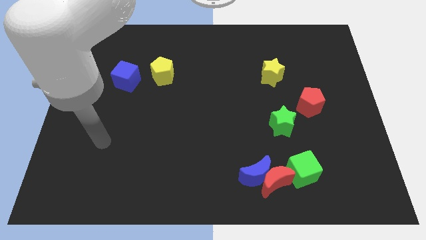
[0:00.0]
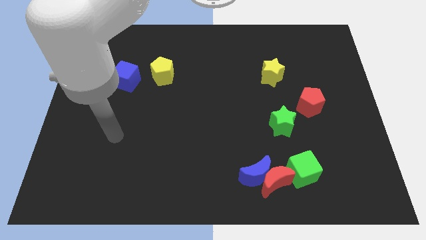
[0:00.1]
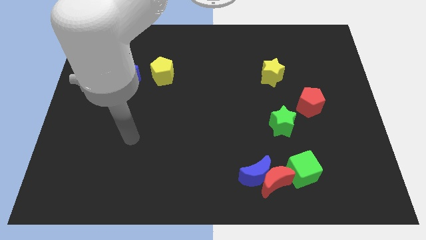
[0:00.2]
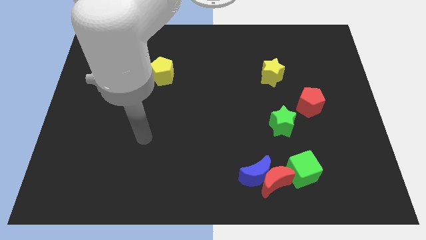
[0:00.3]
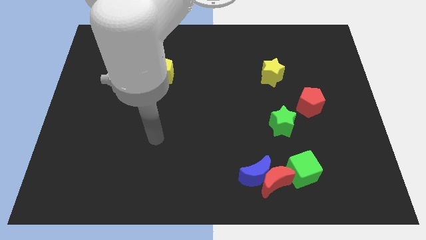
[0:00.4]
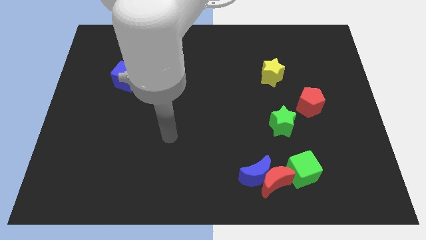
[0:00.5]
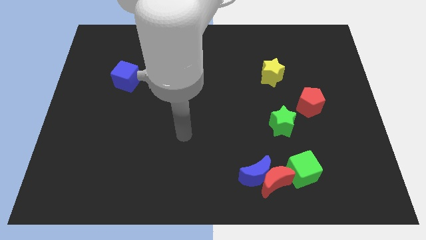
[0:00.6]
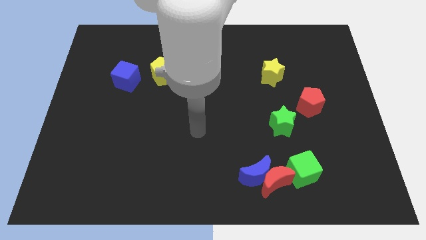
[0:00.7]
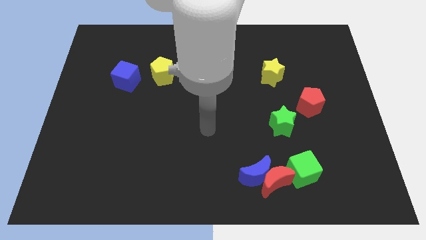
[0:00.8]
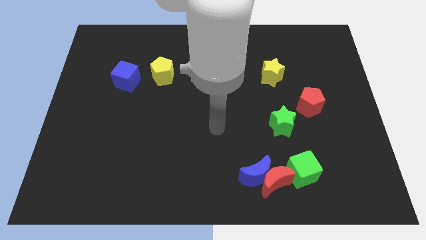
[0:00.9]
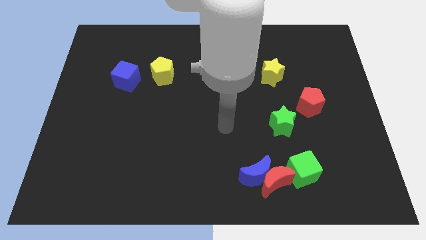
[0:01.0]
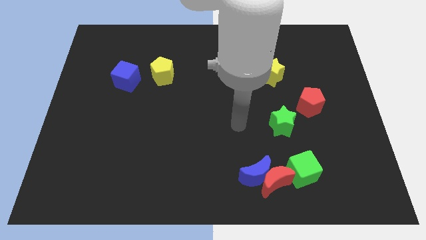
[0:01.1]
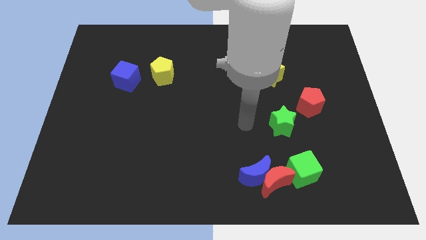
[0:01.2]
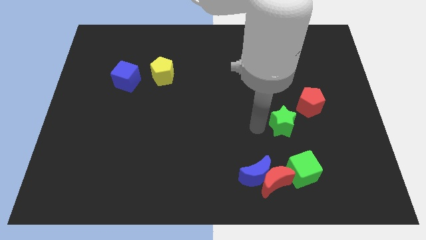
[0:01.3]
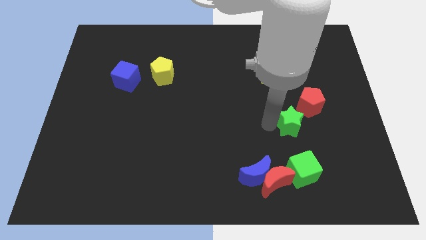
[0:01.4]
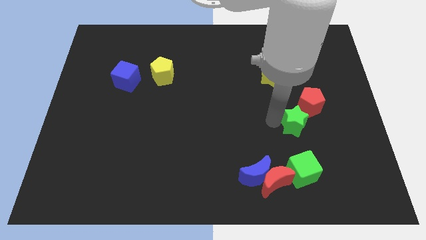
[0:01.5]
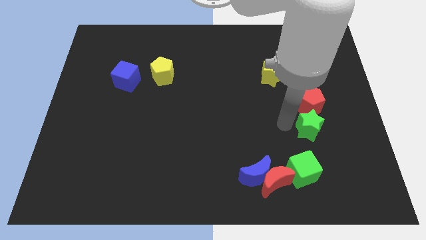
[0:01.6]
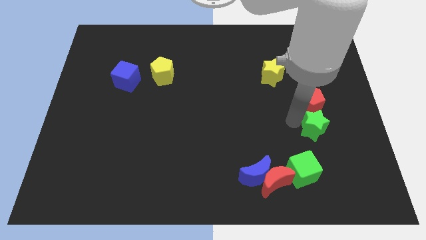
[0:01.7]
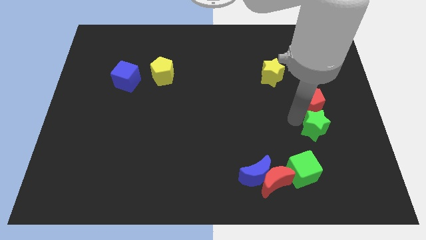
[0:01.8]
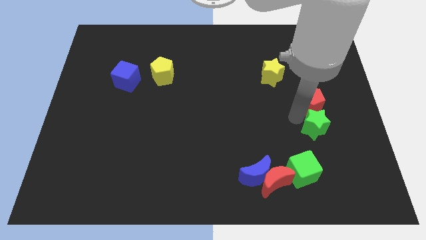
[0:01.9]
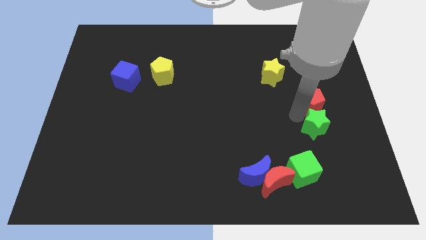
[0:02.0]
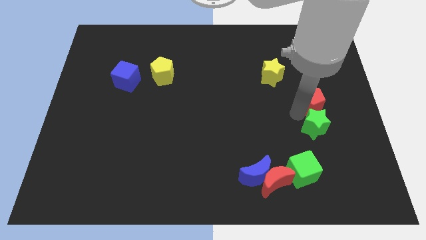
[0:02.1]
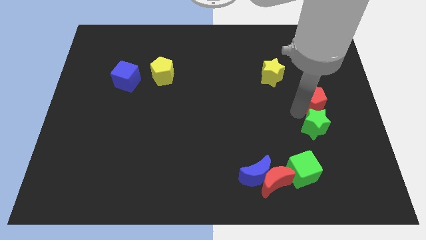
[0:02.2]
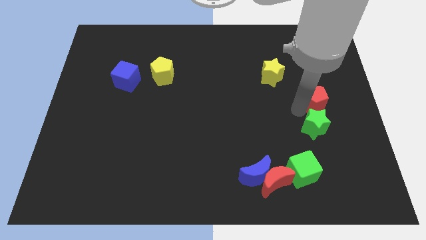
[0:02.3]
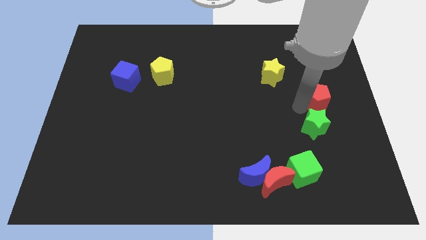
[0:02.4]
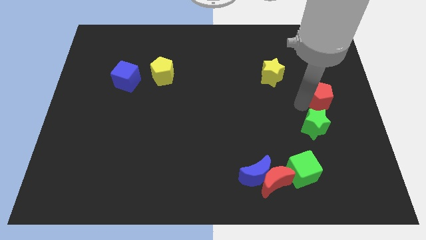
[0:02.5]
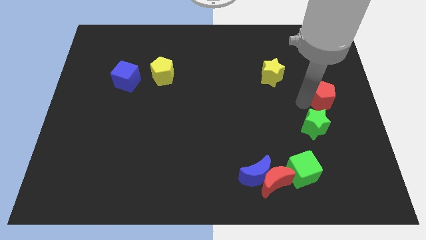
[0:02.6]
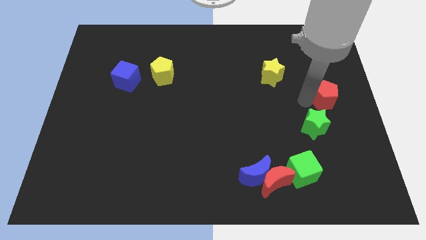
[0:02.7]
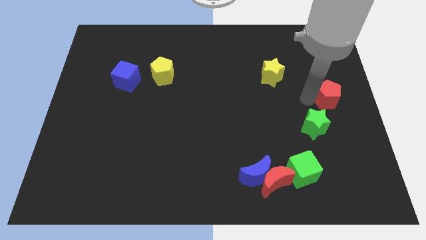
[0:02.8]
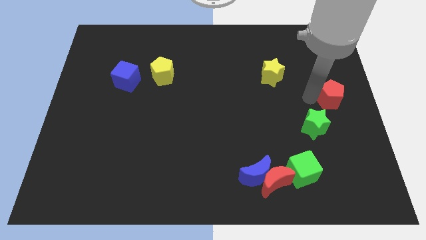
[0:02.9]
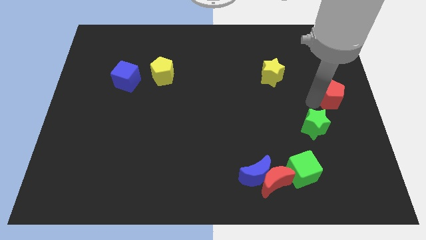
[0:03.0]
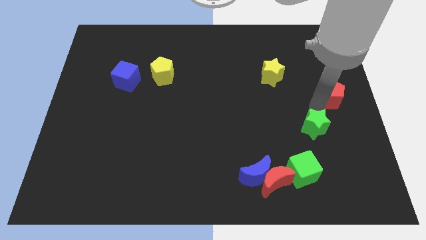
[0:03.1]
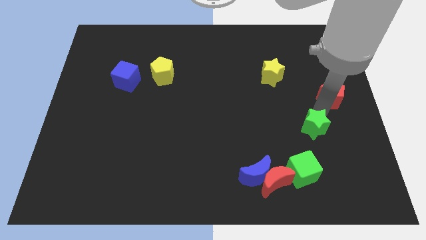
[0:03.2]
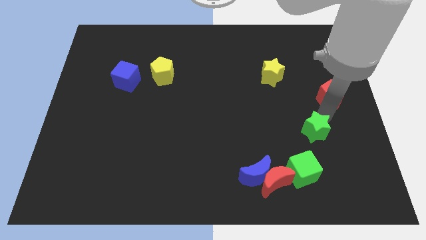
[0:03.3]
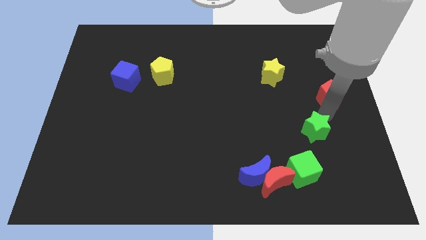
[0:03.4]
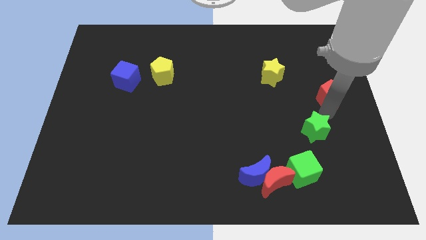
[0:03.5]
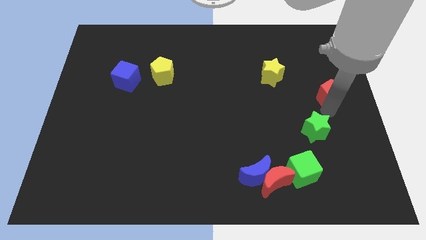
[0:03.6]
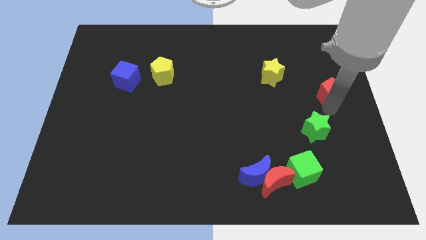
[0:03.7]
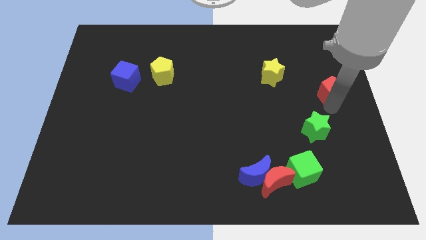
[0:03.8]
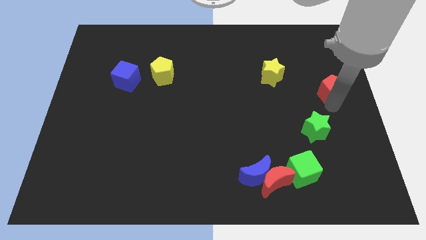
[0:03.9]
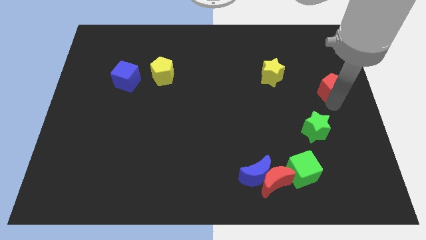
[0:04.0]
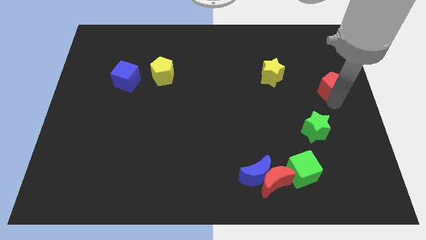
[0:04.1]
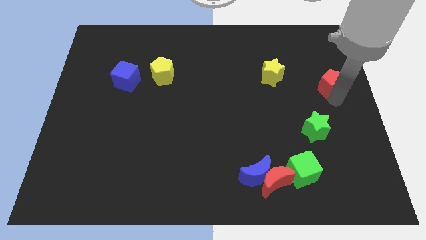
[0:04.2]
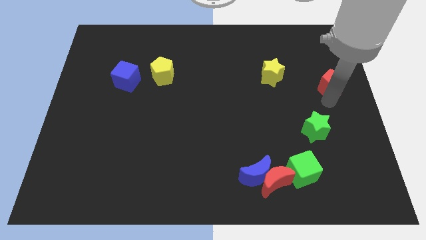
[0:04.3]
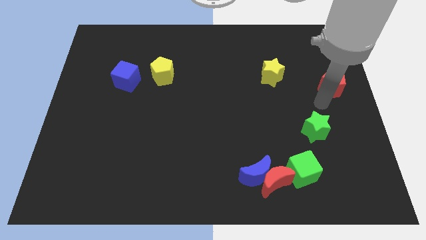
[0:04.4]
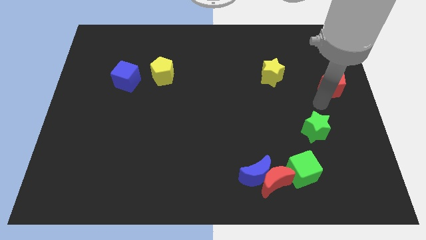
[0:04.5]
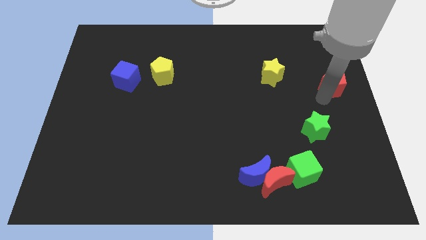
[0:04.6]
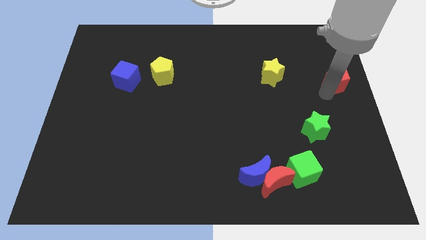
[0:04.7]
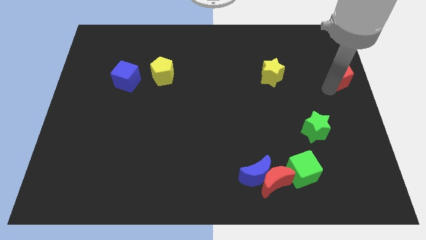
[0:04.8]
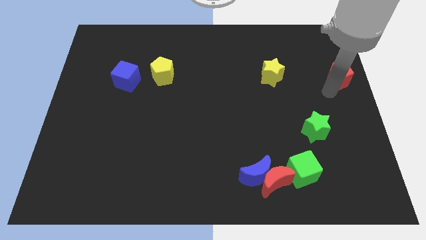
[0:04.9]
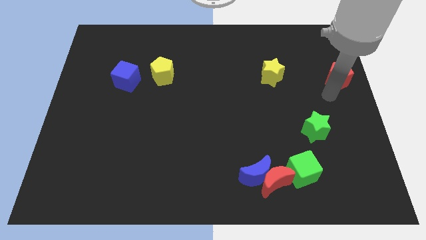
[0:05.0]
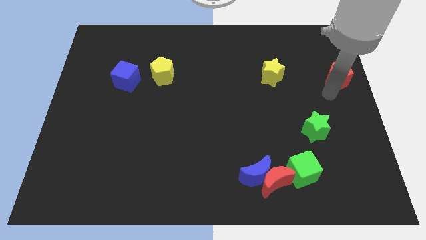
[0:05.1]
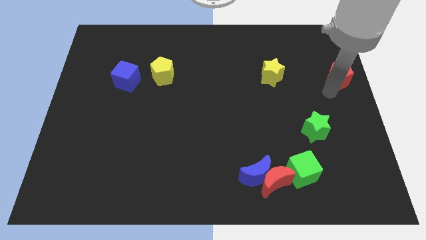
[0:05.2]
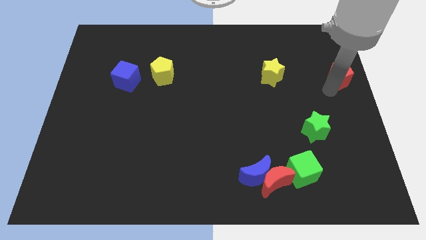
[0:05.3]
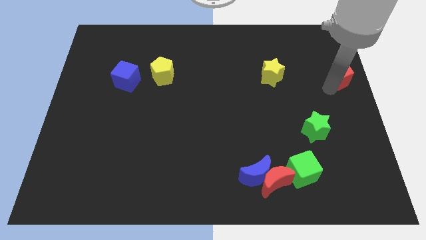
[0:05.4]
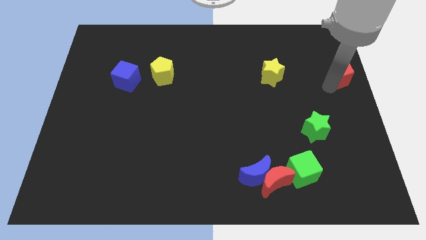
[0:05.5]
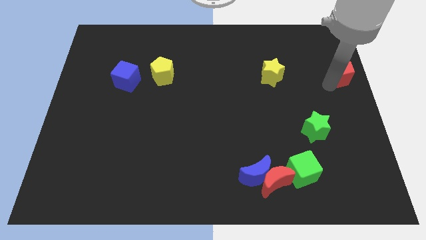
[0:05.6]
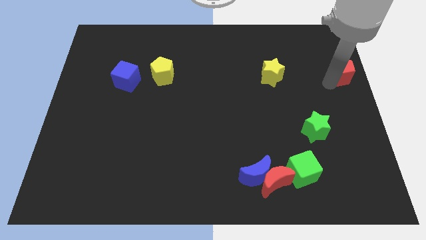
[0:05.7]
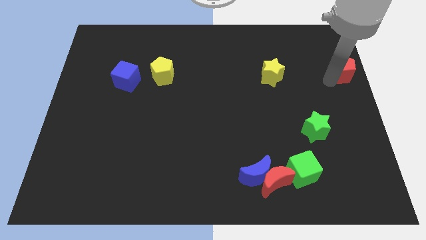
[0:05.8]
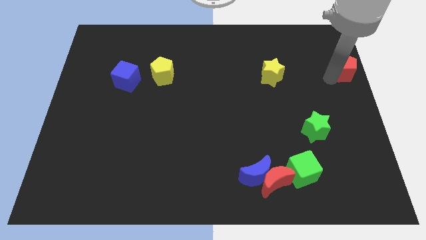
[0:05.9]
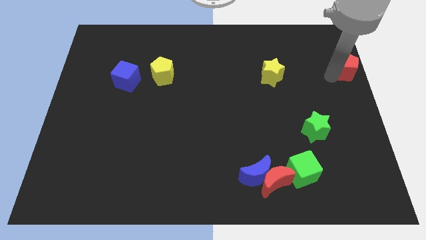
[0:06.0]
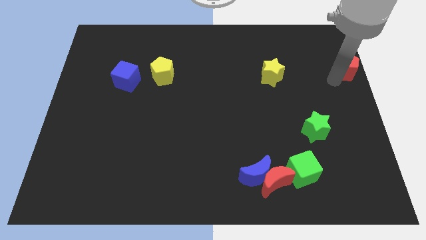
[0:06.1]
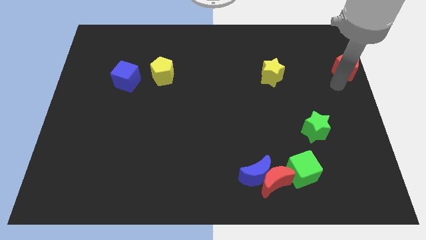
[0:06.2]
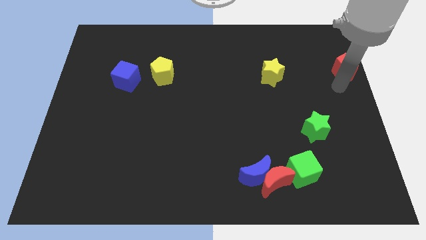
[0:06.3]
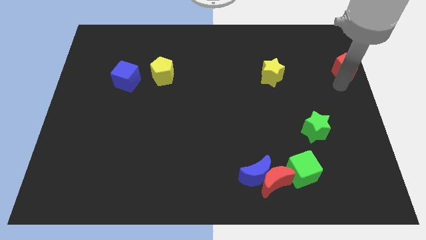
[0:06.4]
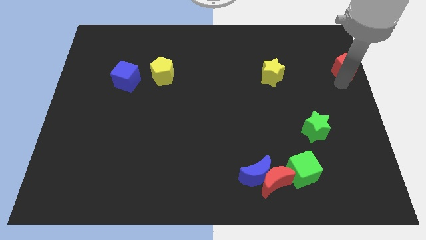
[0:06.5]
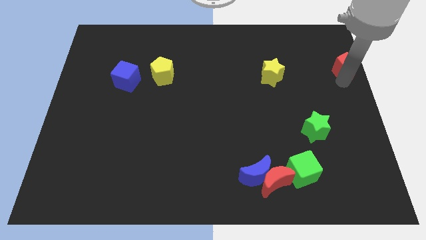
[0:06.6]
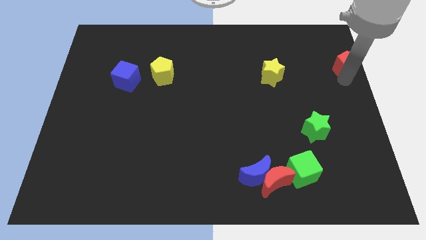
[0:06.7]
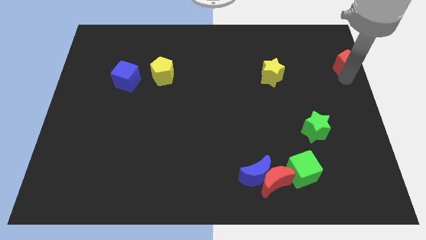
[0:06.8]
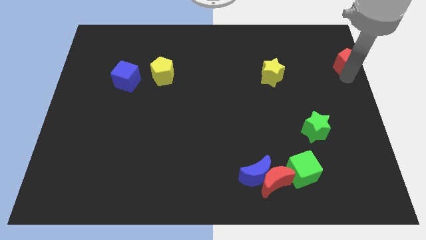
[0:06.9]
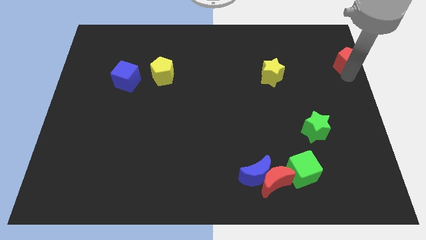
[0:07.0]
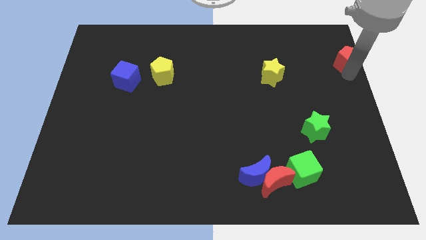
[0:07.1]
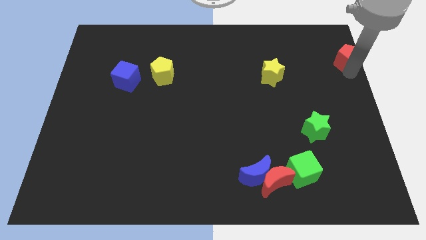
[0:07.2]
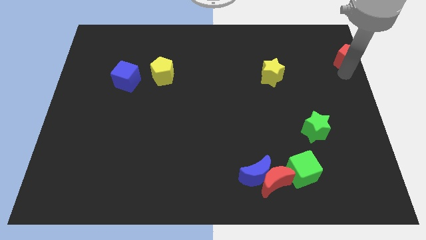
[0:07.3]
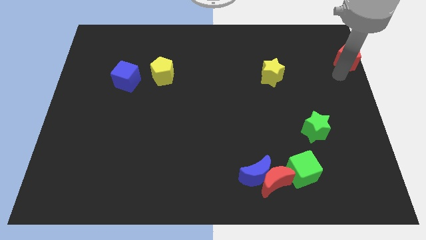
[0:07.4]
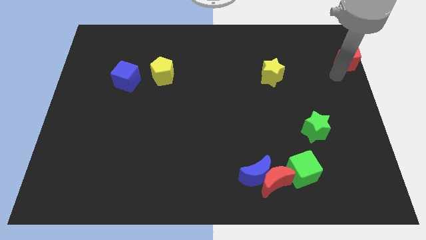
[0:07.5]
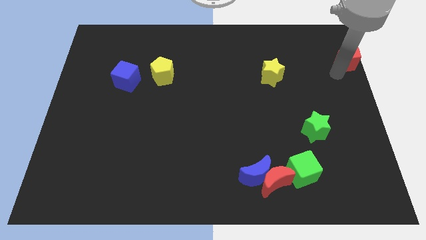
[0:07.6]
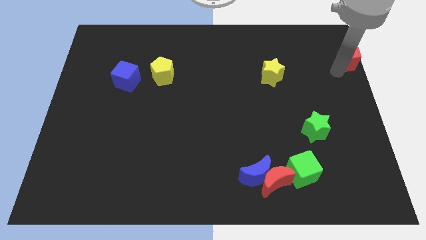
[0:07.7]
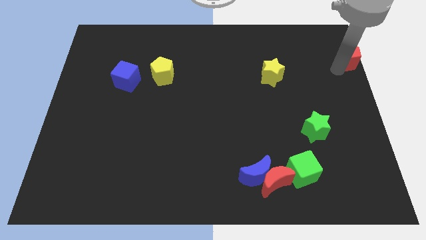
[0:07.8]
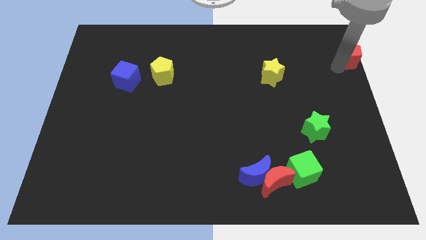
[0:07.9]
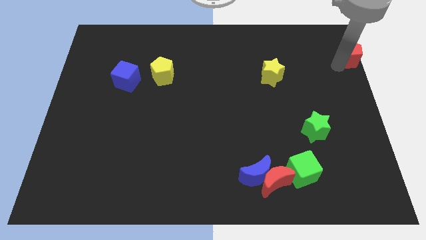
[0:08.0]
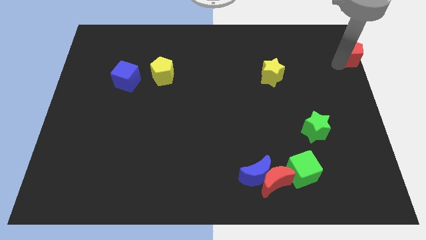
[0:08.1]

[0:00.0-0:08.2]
push the red pentagon to the top right
